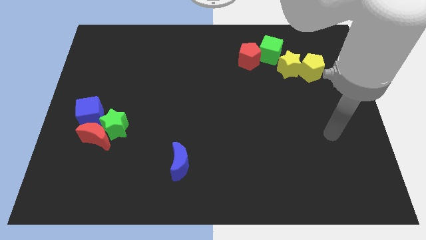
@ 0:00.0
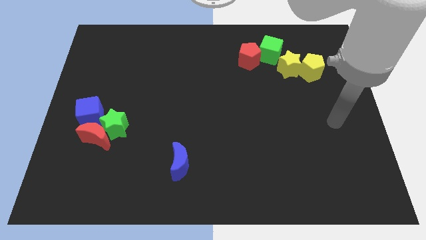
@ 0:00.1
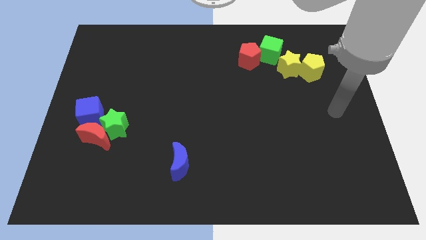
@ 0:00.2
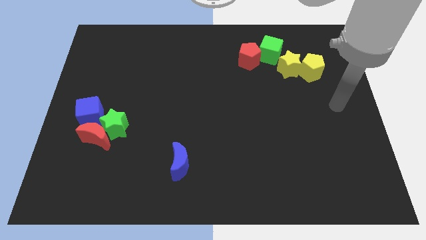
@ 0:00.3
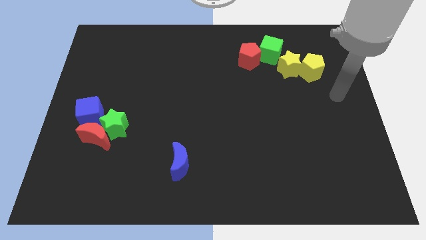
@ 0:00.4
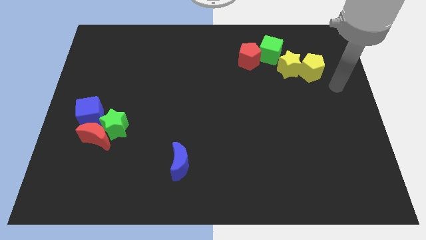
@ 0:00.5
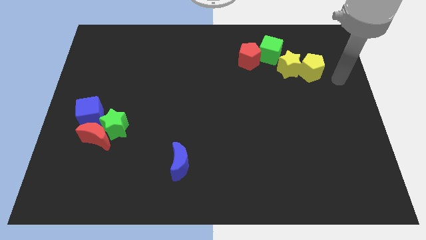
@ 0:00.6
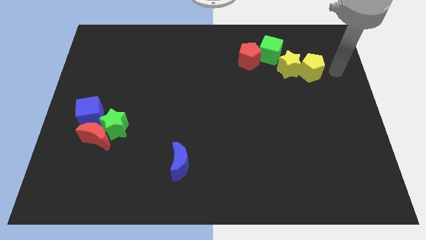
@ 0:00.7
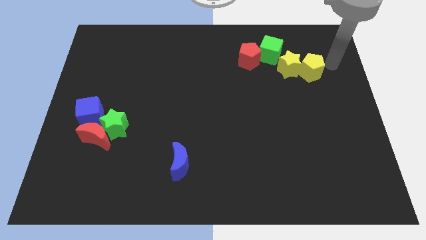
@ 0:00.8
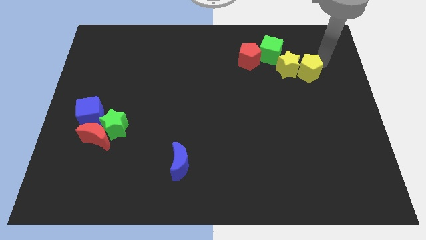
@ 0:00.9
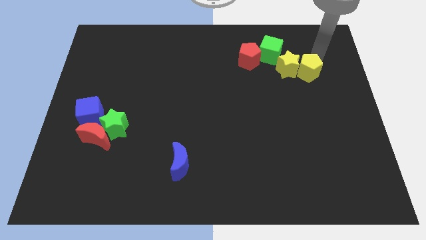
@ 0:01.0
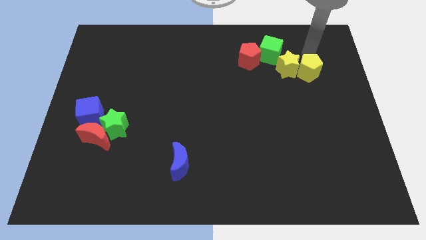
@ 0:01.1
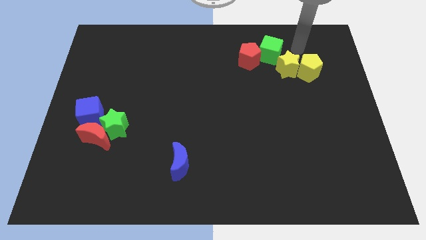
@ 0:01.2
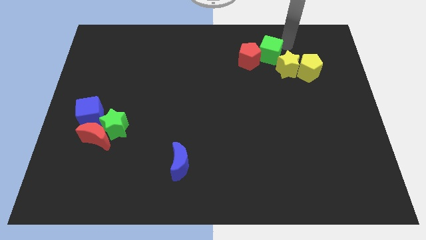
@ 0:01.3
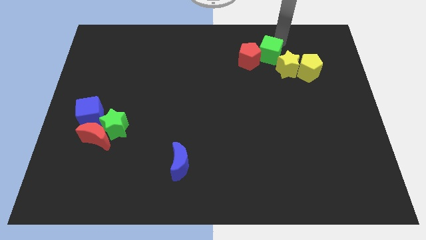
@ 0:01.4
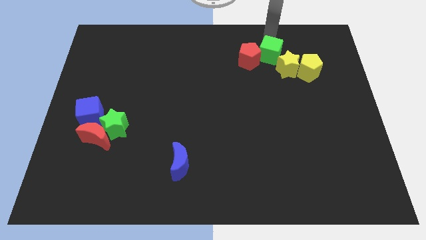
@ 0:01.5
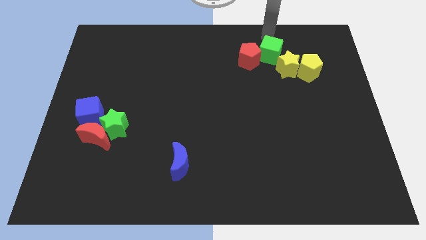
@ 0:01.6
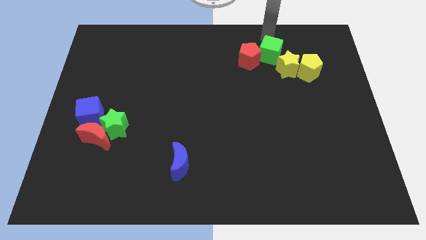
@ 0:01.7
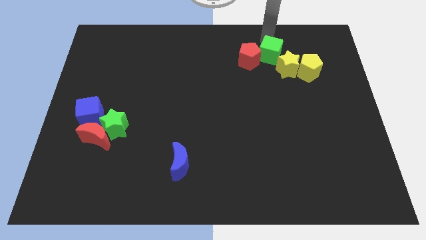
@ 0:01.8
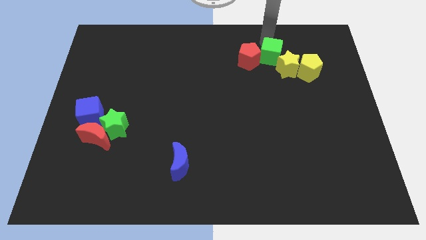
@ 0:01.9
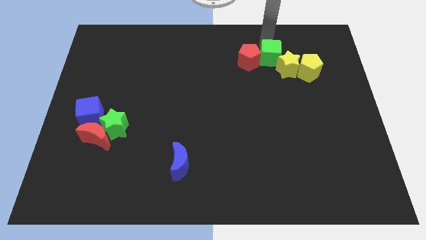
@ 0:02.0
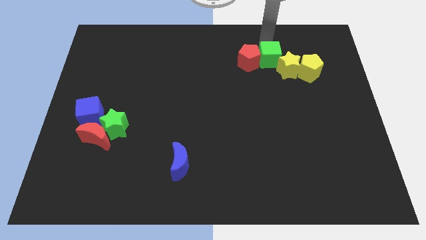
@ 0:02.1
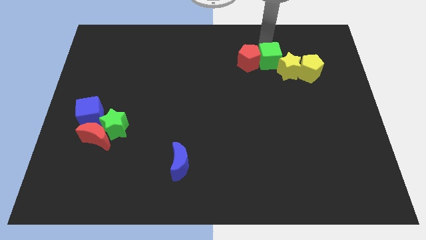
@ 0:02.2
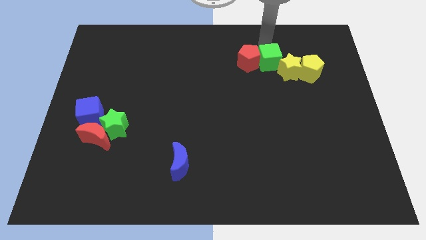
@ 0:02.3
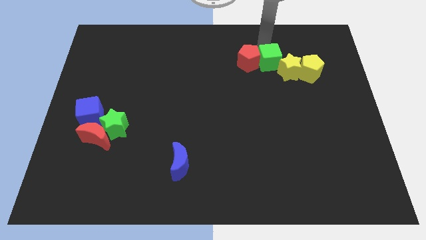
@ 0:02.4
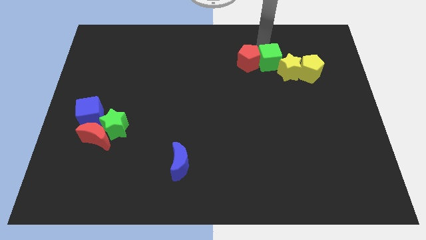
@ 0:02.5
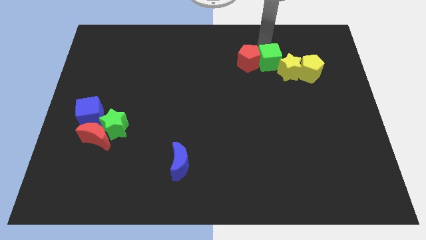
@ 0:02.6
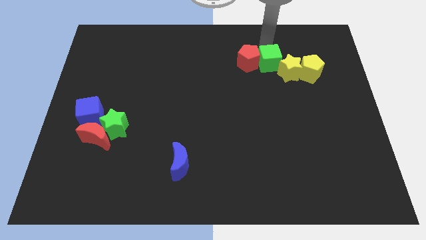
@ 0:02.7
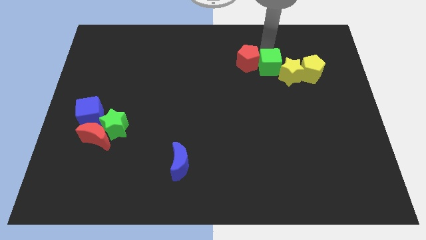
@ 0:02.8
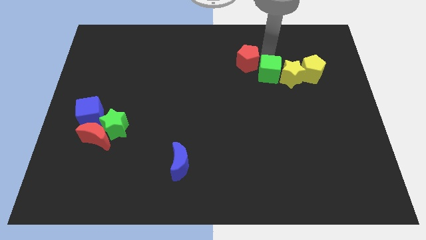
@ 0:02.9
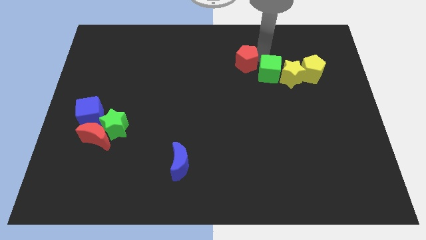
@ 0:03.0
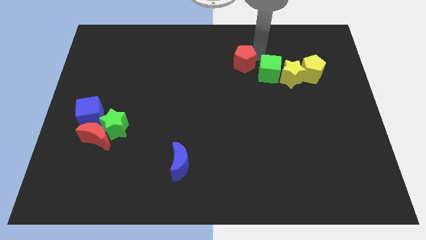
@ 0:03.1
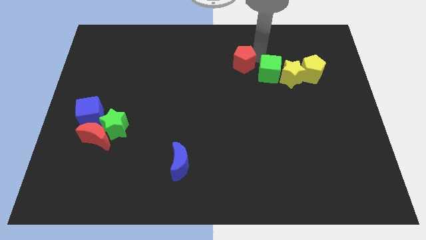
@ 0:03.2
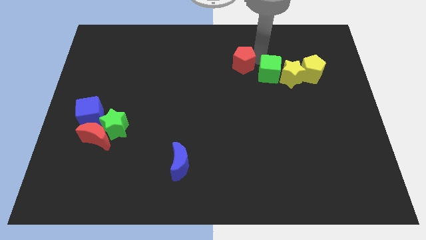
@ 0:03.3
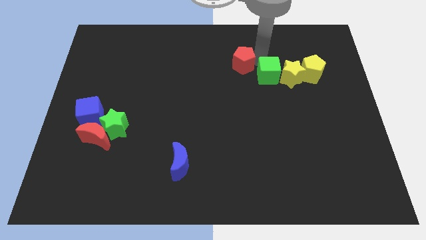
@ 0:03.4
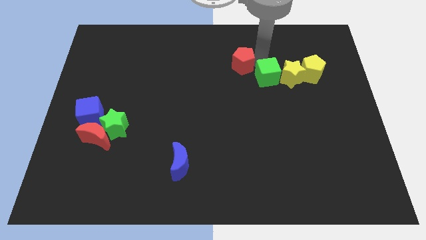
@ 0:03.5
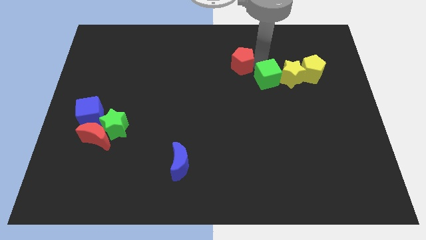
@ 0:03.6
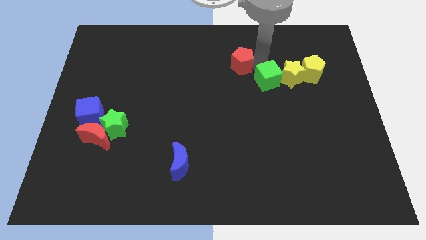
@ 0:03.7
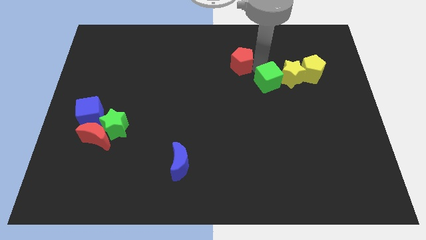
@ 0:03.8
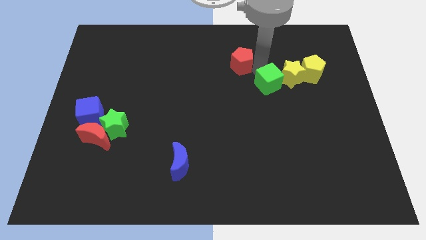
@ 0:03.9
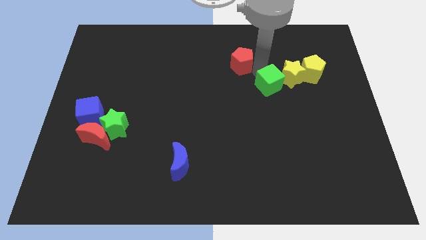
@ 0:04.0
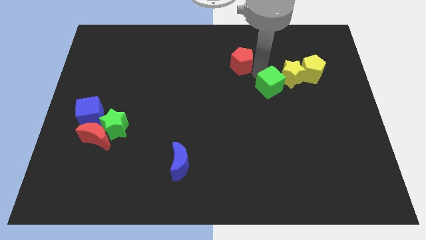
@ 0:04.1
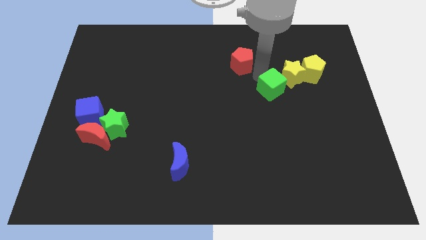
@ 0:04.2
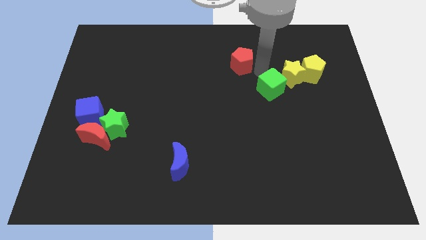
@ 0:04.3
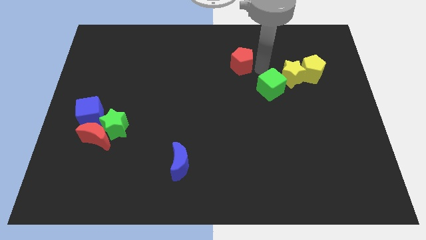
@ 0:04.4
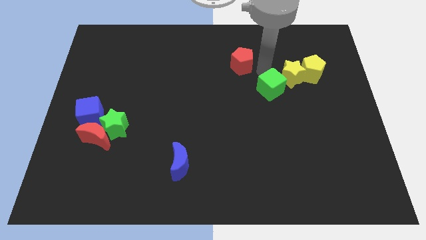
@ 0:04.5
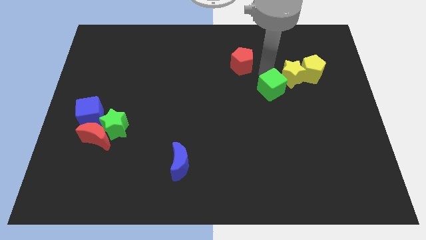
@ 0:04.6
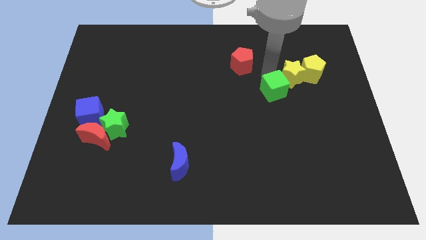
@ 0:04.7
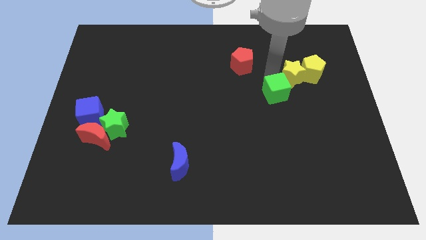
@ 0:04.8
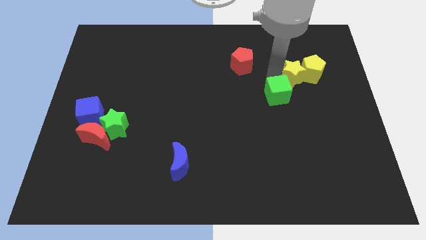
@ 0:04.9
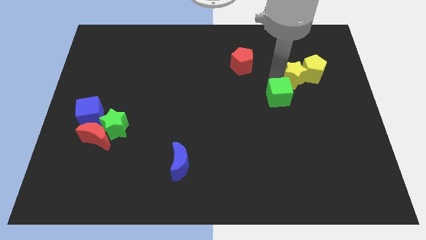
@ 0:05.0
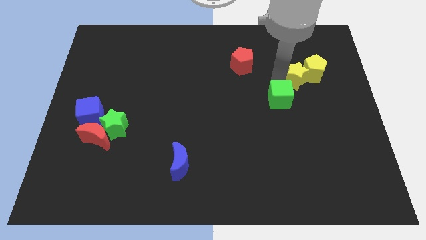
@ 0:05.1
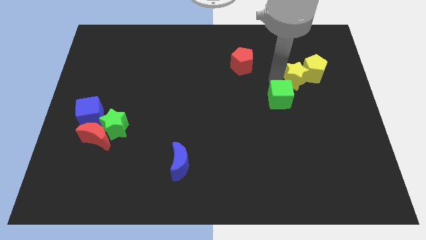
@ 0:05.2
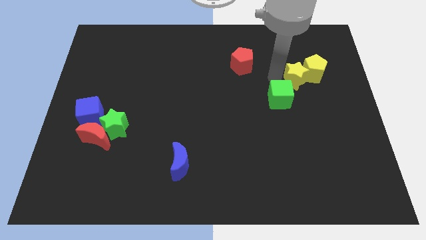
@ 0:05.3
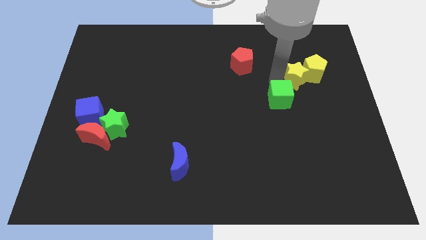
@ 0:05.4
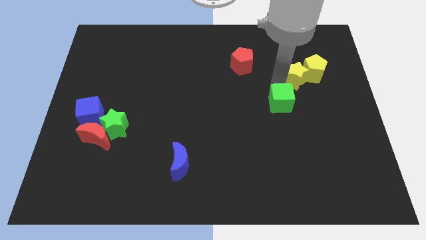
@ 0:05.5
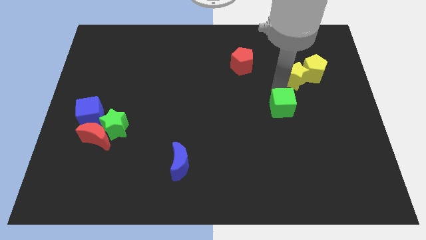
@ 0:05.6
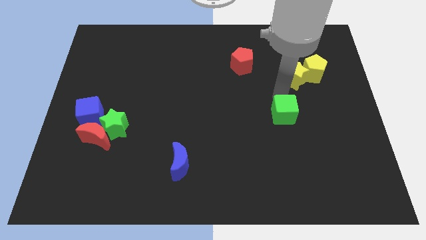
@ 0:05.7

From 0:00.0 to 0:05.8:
push the green cube down

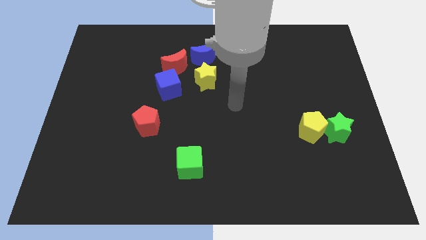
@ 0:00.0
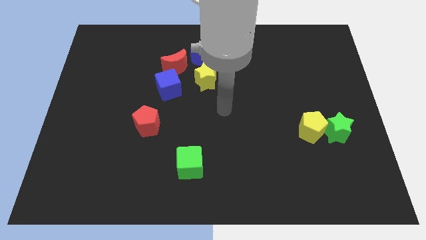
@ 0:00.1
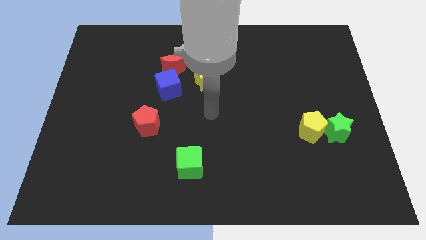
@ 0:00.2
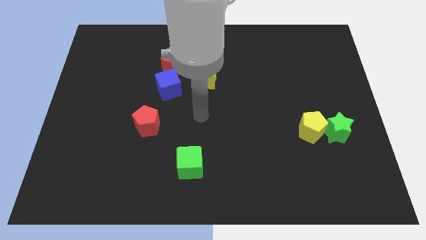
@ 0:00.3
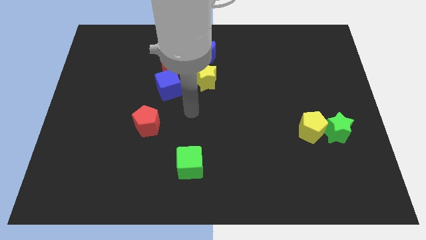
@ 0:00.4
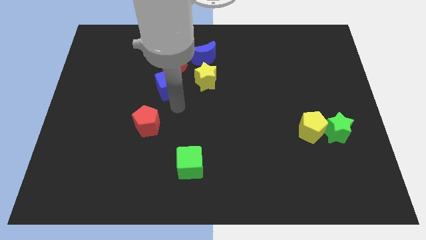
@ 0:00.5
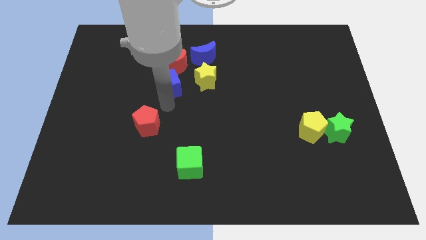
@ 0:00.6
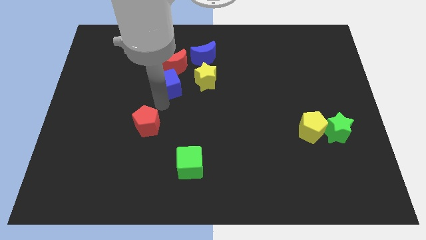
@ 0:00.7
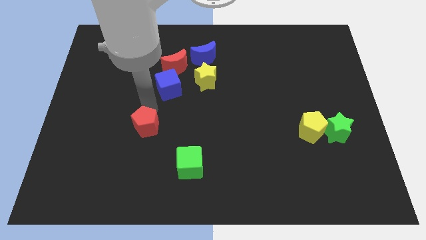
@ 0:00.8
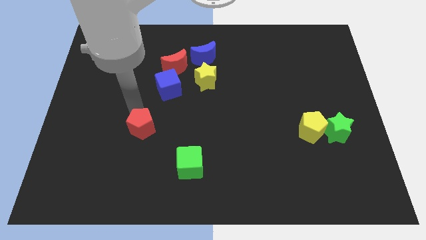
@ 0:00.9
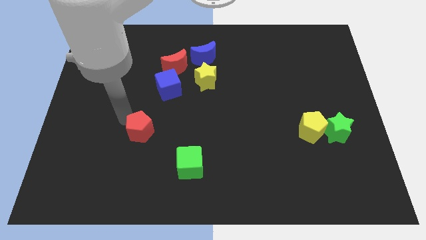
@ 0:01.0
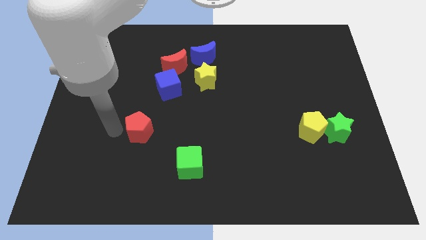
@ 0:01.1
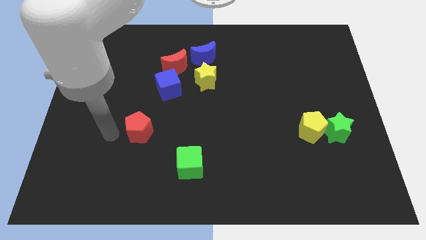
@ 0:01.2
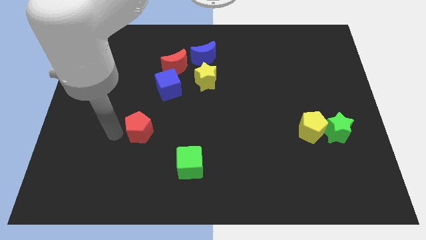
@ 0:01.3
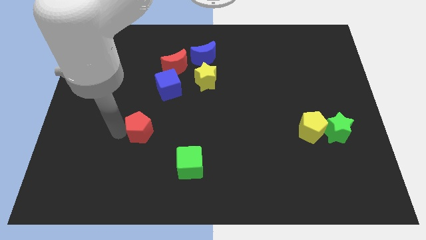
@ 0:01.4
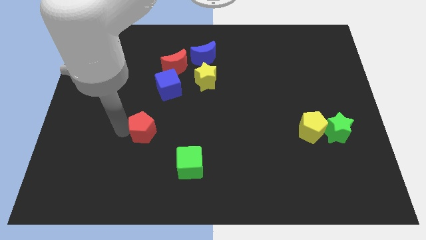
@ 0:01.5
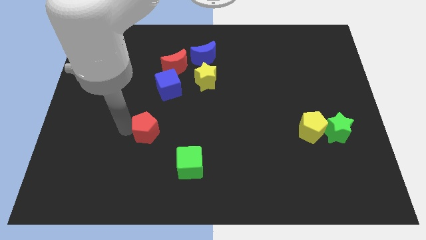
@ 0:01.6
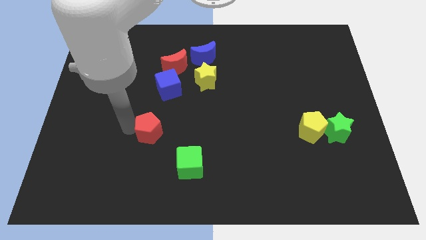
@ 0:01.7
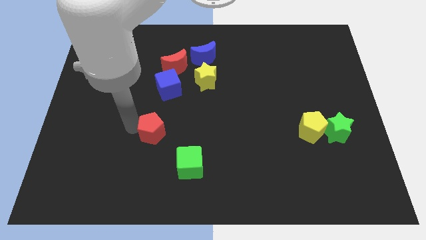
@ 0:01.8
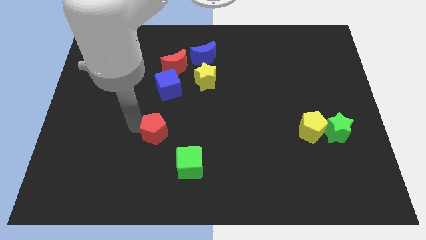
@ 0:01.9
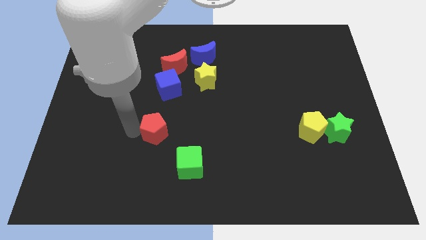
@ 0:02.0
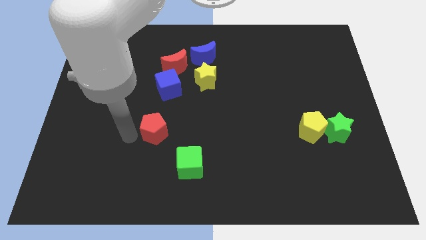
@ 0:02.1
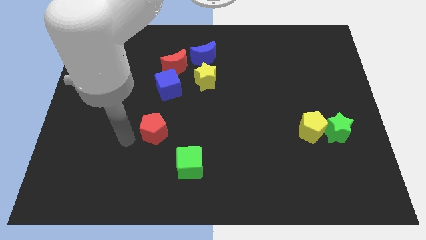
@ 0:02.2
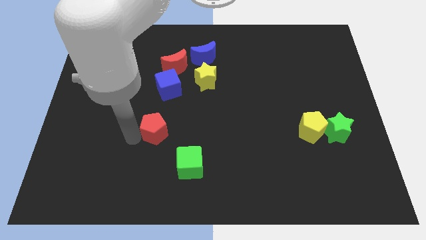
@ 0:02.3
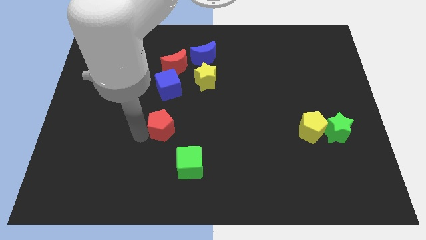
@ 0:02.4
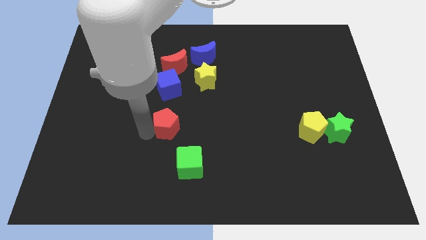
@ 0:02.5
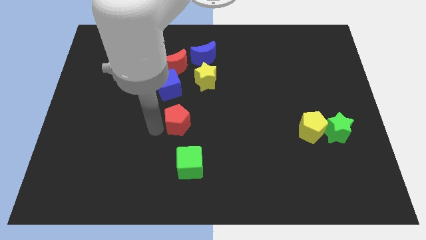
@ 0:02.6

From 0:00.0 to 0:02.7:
move the red pentagon a little bit right

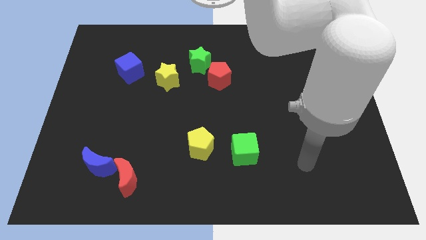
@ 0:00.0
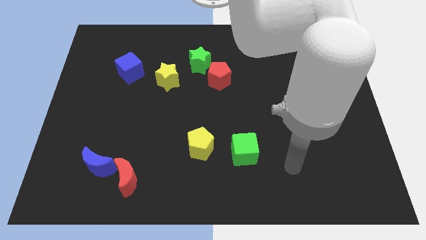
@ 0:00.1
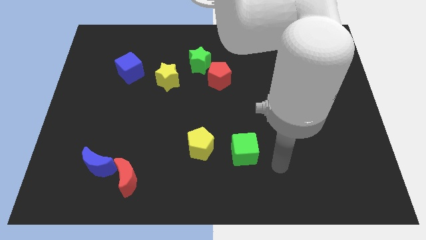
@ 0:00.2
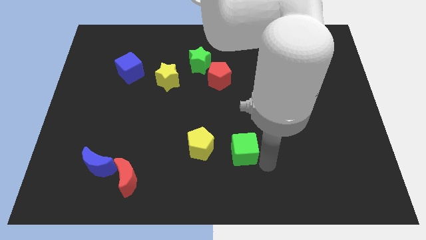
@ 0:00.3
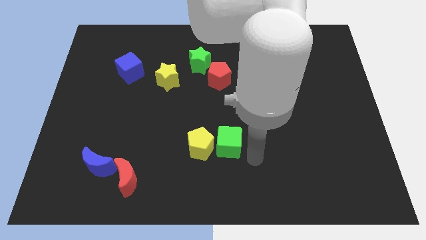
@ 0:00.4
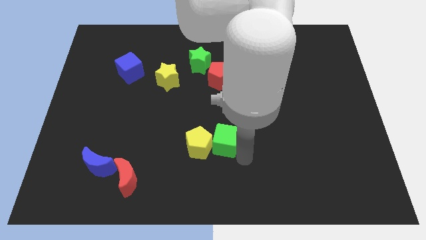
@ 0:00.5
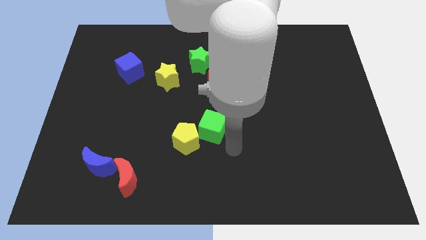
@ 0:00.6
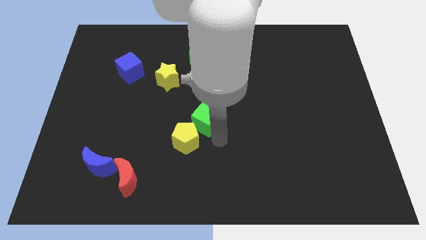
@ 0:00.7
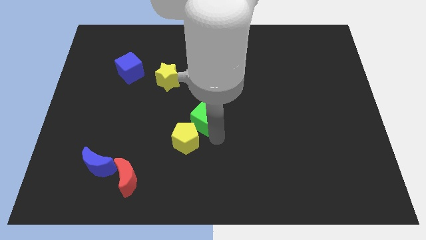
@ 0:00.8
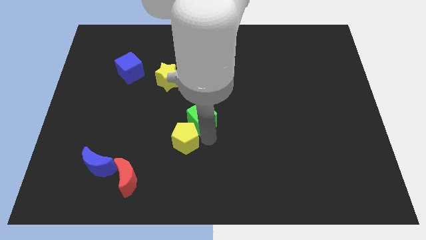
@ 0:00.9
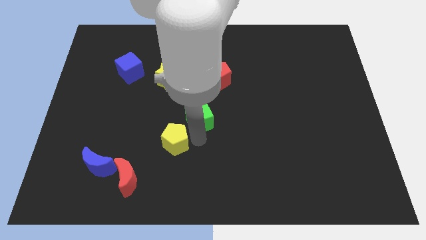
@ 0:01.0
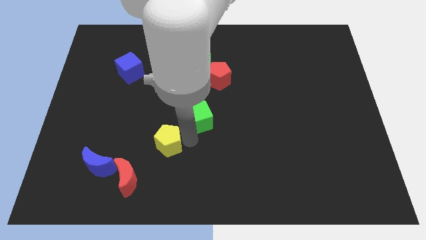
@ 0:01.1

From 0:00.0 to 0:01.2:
move the yellow pentagon to the left a little bit
